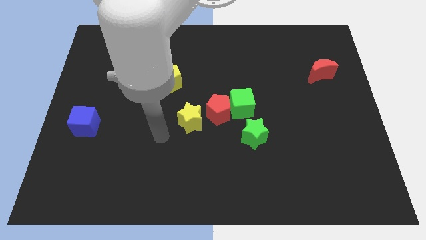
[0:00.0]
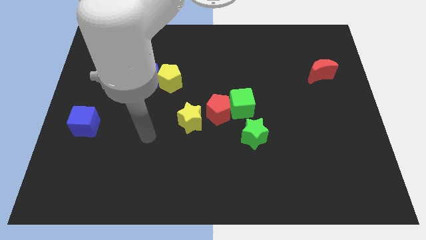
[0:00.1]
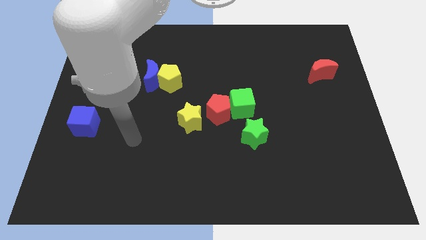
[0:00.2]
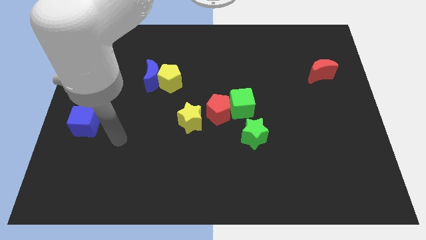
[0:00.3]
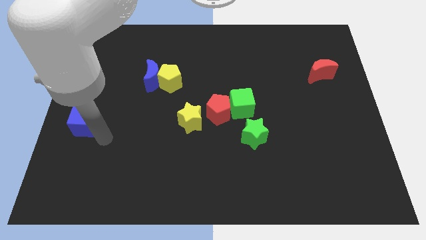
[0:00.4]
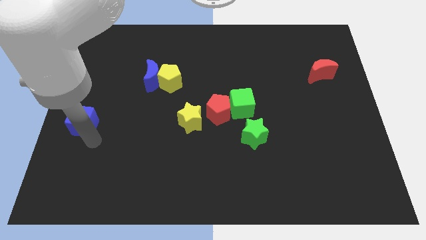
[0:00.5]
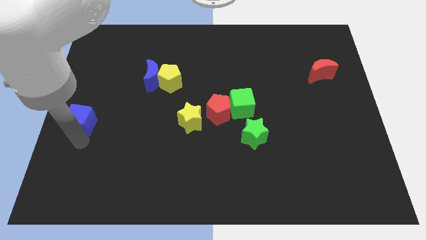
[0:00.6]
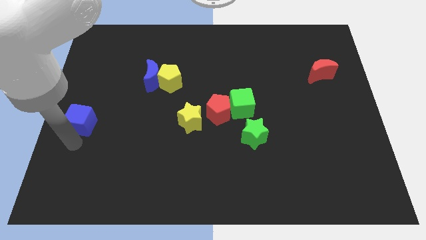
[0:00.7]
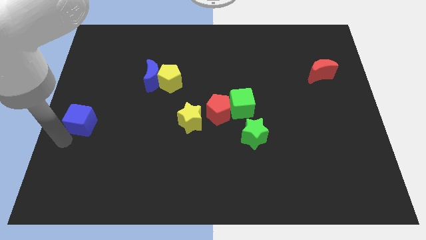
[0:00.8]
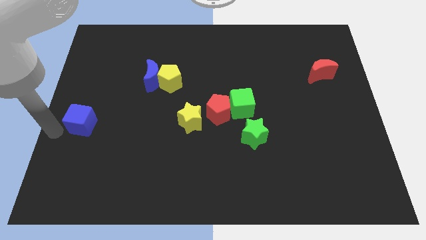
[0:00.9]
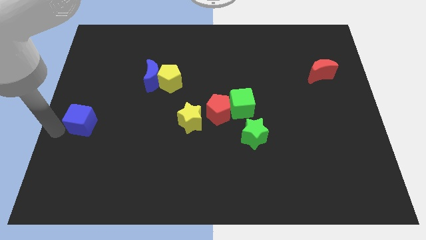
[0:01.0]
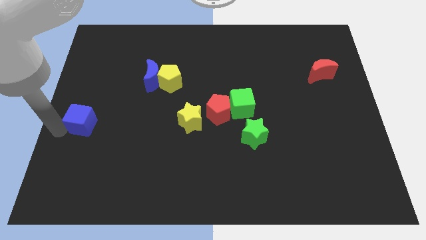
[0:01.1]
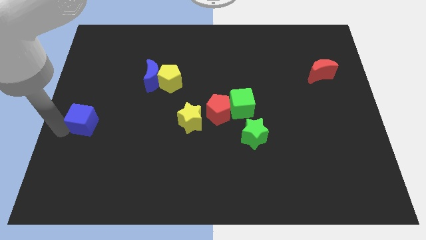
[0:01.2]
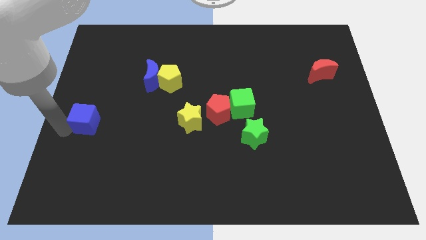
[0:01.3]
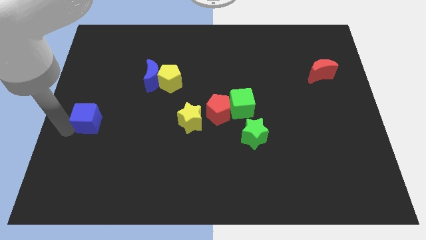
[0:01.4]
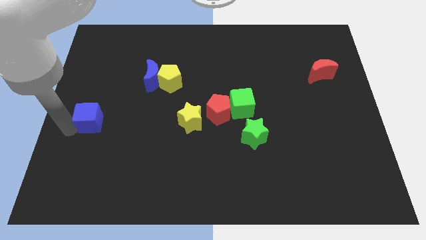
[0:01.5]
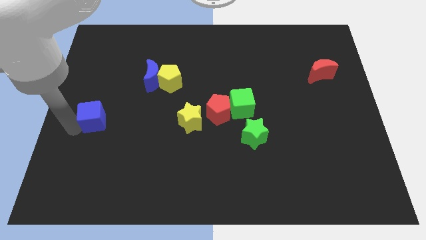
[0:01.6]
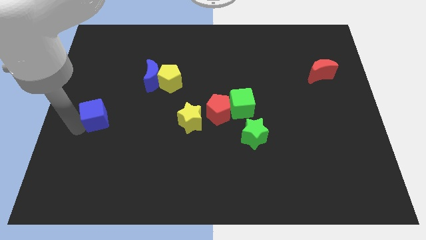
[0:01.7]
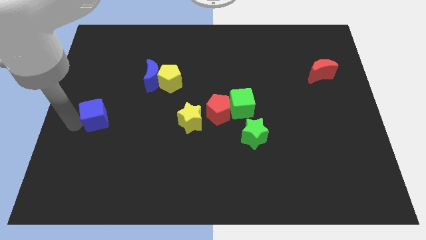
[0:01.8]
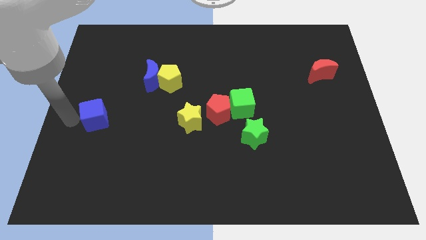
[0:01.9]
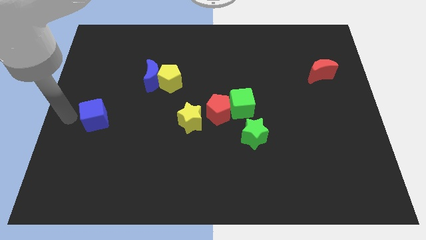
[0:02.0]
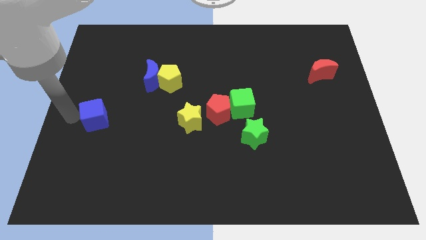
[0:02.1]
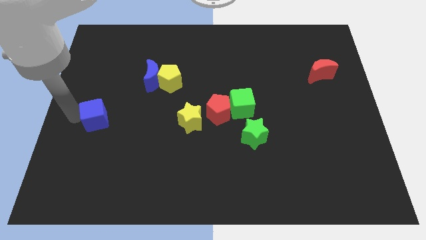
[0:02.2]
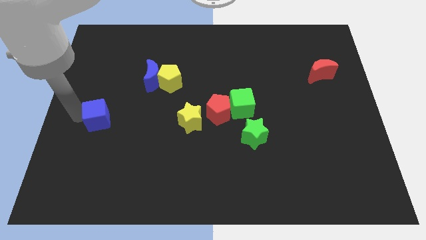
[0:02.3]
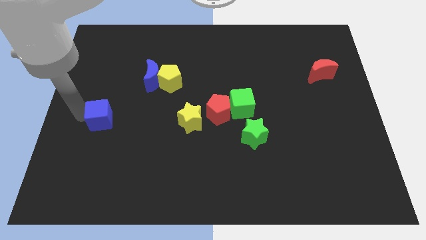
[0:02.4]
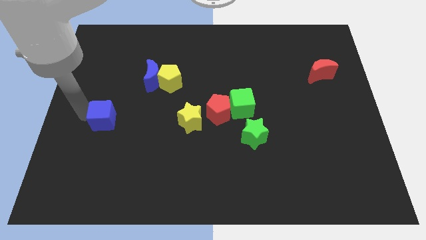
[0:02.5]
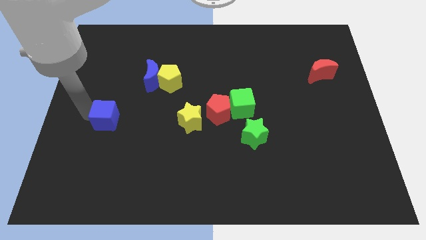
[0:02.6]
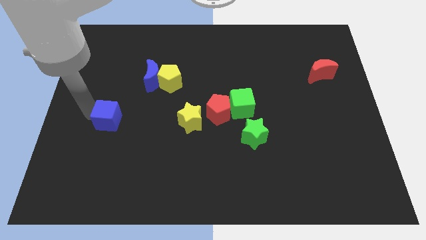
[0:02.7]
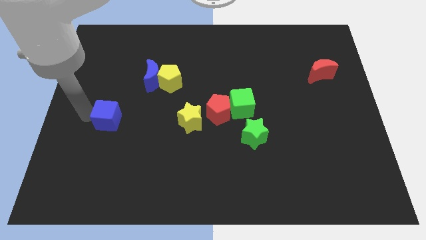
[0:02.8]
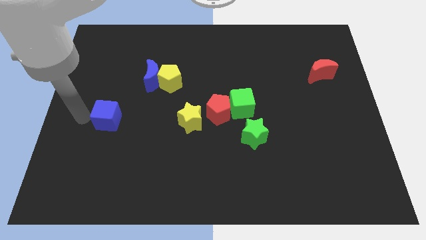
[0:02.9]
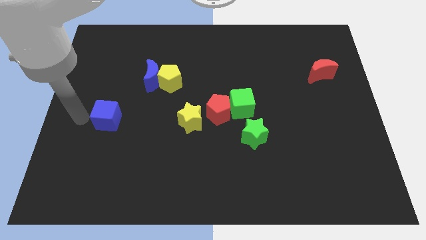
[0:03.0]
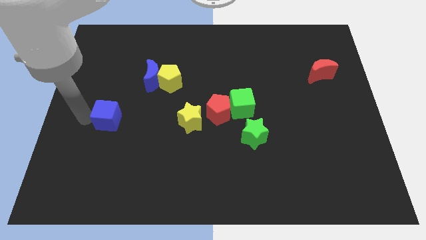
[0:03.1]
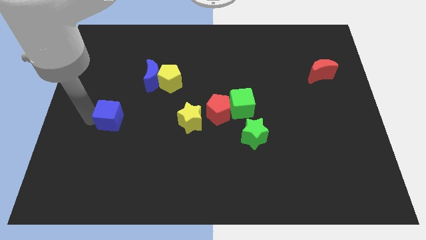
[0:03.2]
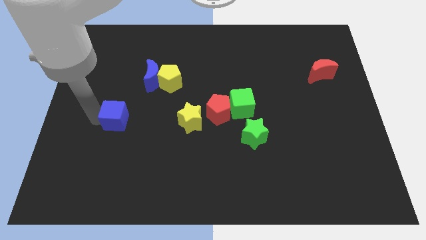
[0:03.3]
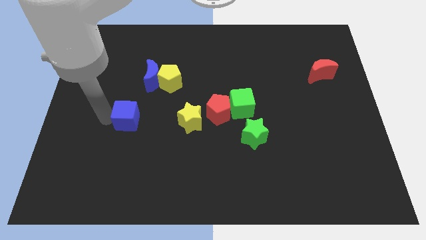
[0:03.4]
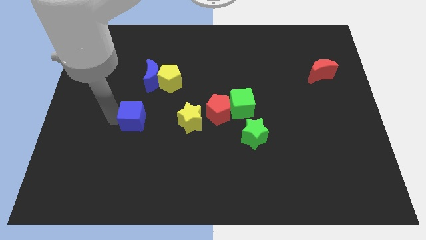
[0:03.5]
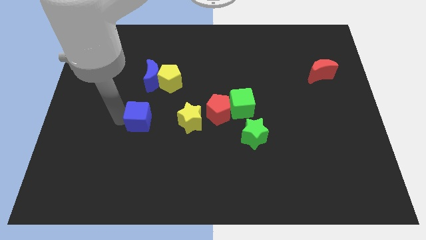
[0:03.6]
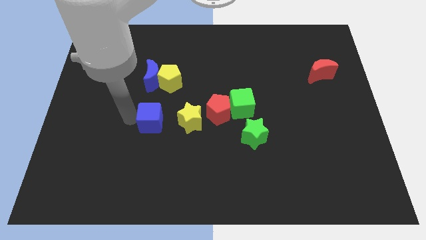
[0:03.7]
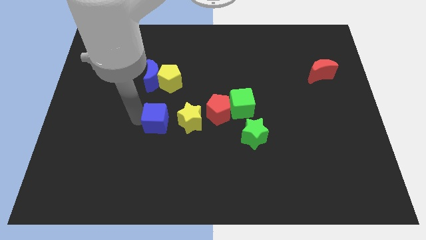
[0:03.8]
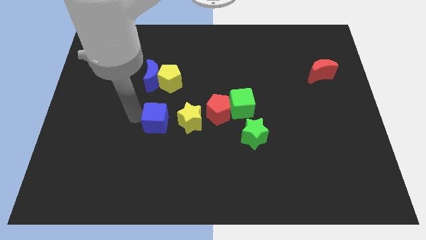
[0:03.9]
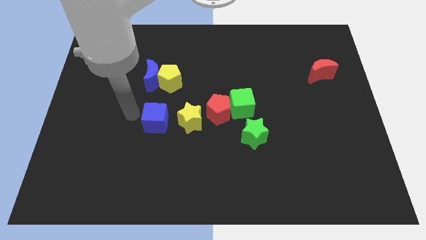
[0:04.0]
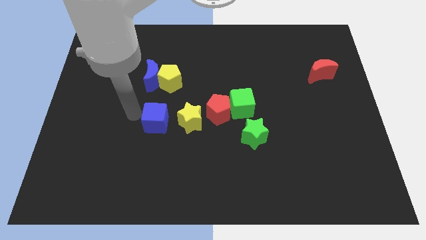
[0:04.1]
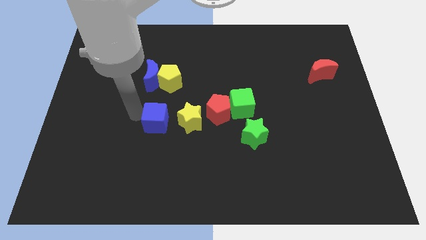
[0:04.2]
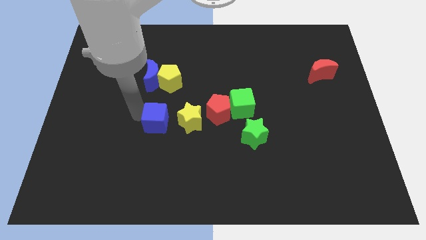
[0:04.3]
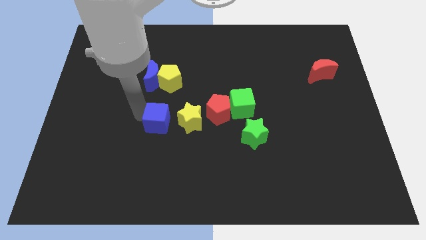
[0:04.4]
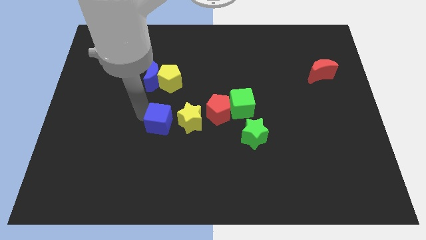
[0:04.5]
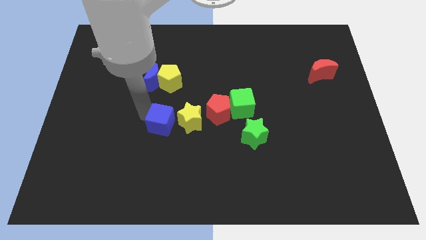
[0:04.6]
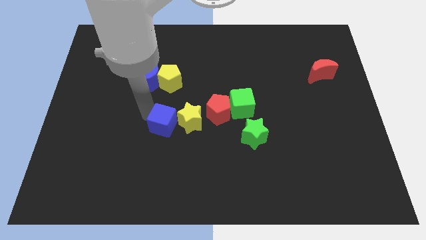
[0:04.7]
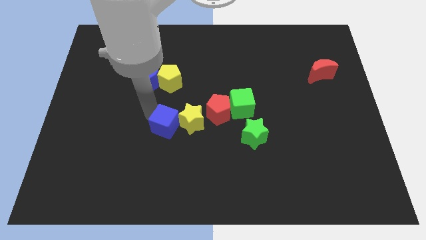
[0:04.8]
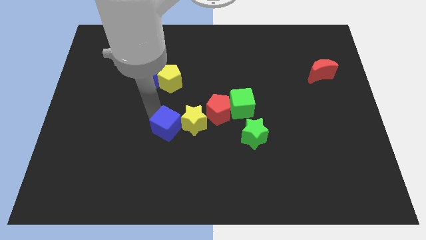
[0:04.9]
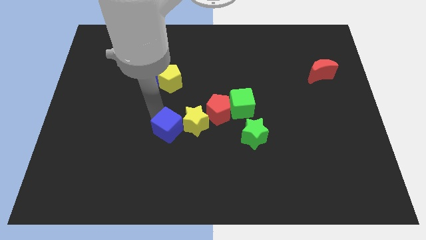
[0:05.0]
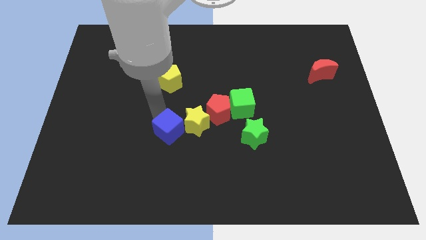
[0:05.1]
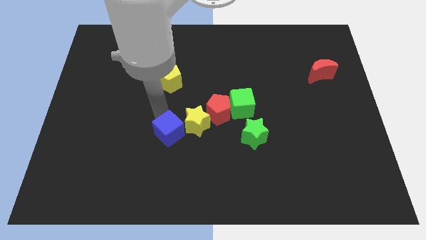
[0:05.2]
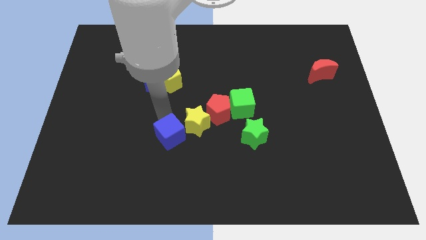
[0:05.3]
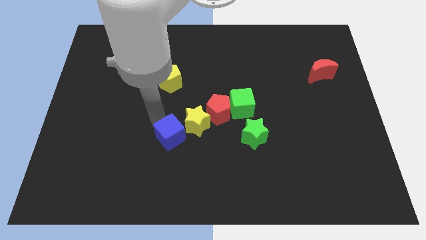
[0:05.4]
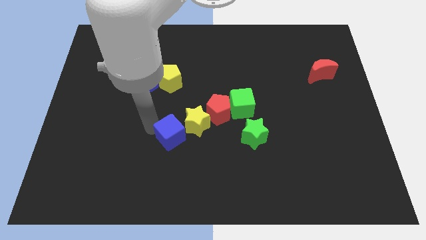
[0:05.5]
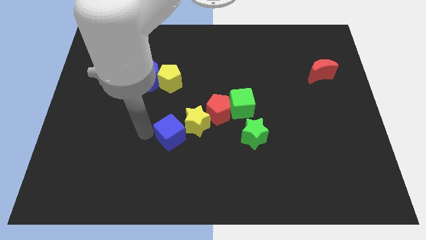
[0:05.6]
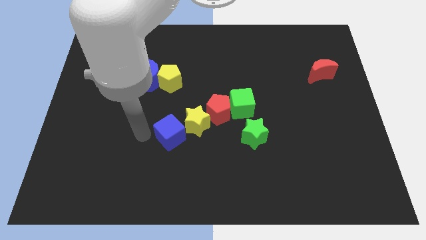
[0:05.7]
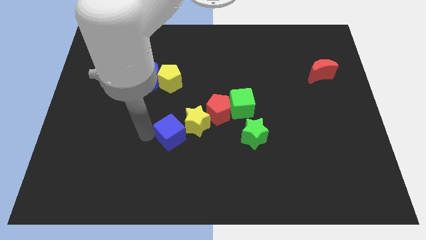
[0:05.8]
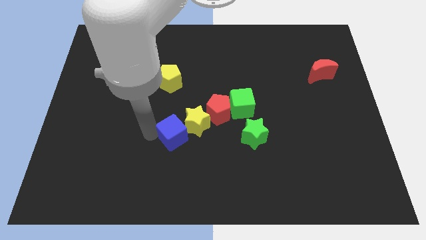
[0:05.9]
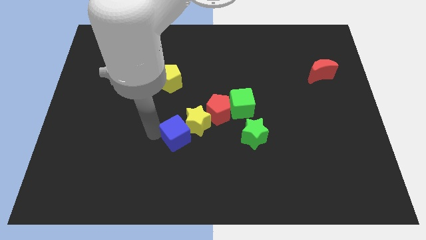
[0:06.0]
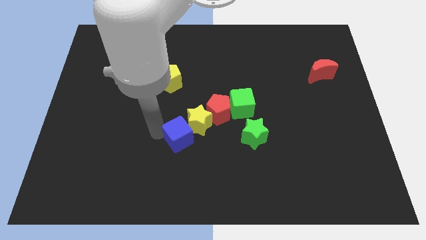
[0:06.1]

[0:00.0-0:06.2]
put the blue cube left of the green star

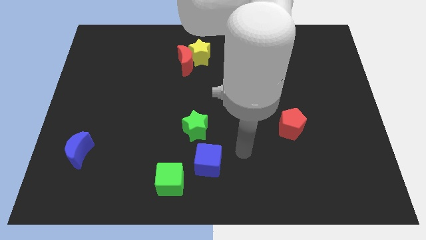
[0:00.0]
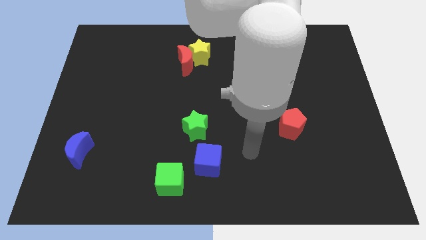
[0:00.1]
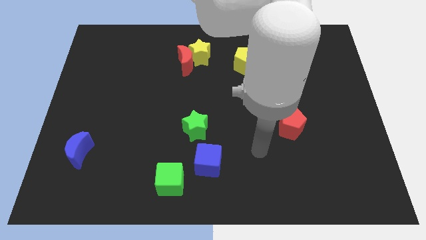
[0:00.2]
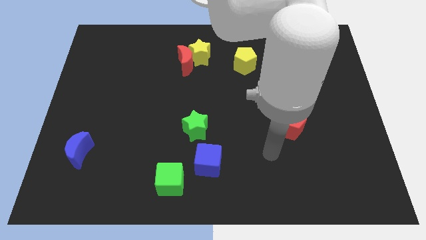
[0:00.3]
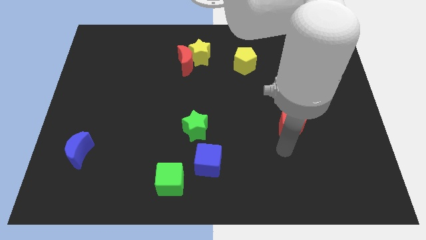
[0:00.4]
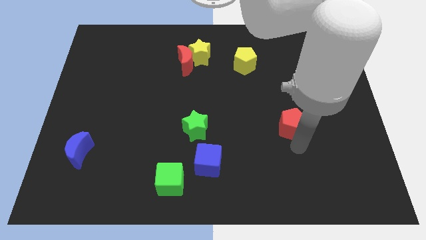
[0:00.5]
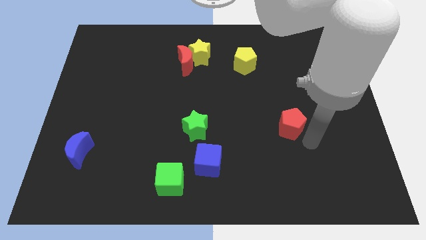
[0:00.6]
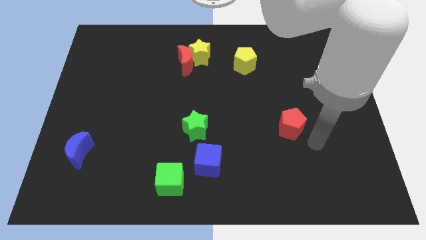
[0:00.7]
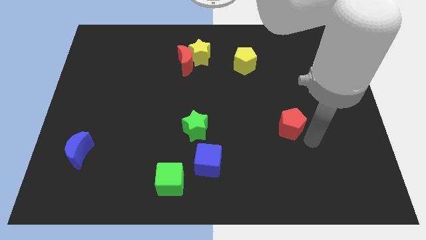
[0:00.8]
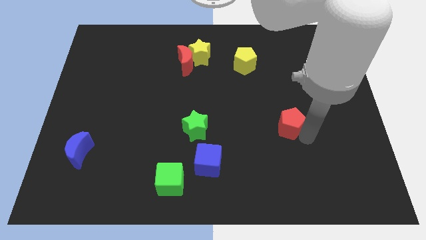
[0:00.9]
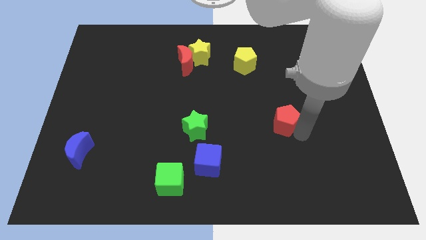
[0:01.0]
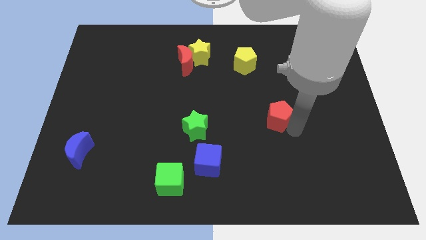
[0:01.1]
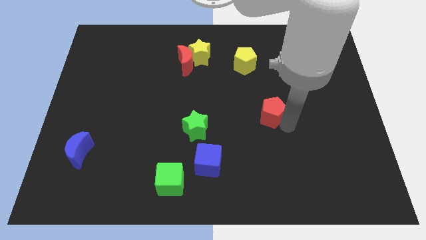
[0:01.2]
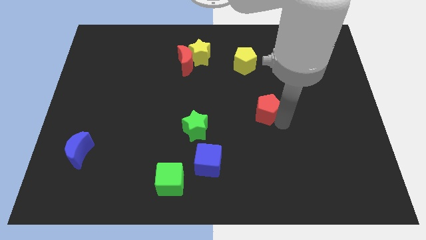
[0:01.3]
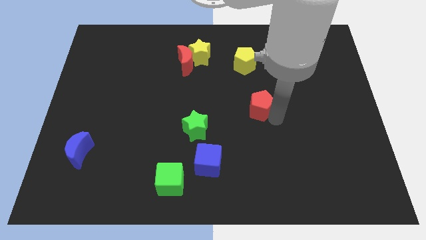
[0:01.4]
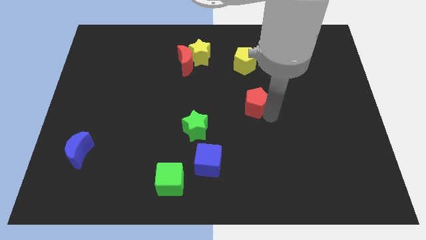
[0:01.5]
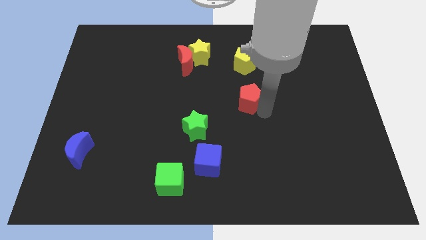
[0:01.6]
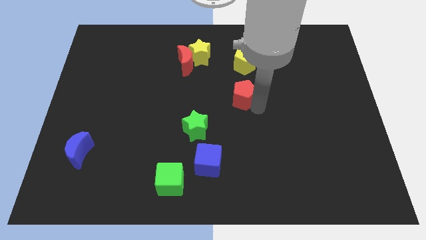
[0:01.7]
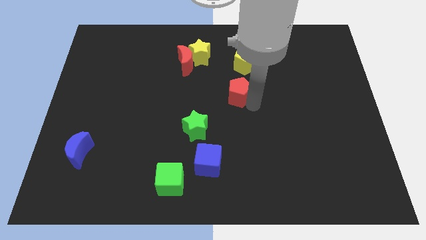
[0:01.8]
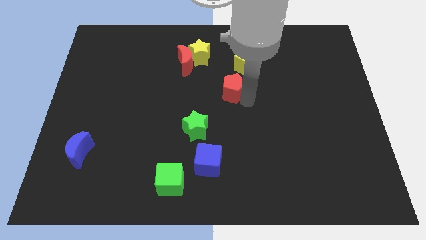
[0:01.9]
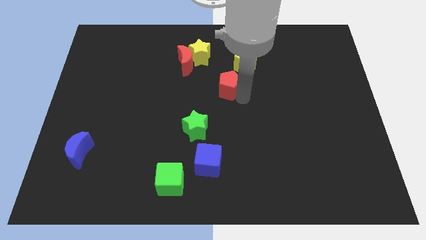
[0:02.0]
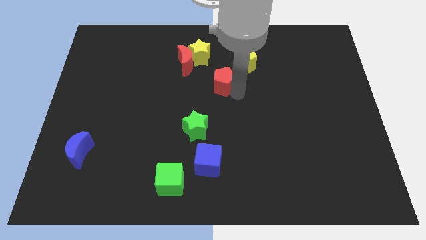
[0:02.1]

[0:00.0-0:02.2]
push the red pentagon diagonally down and to the right of the red moon

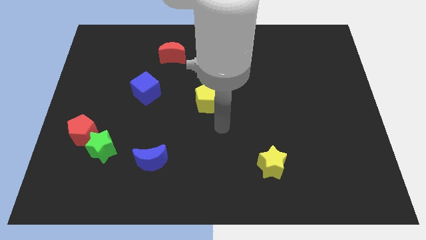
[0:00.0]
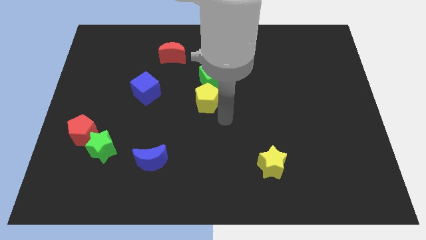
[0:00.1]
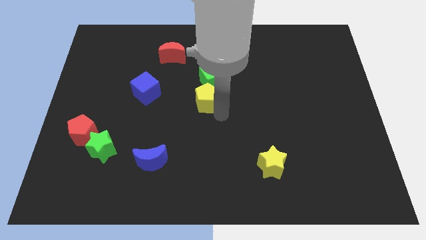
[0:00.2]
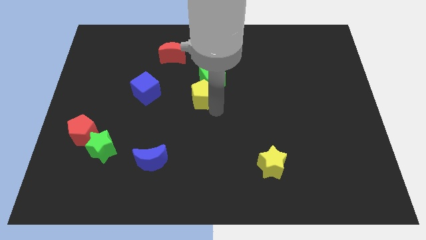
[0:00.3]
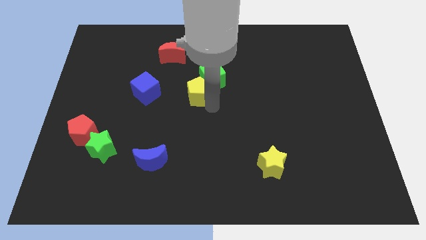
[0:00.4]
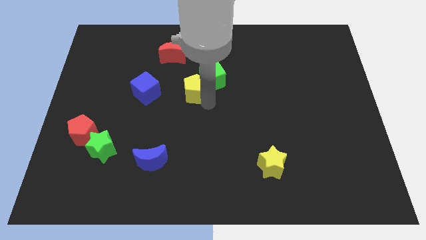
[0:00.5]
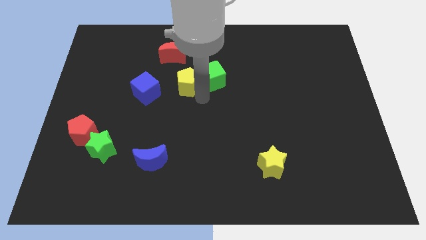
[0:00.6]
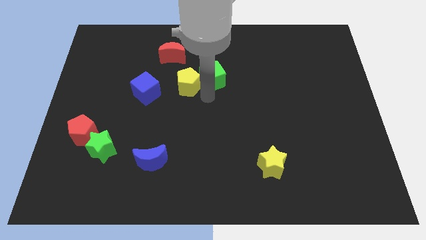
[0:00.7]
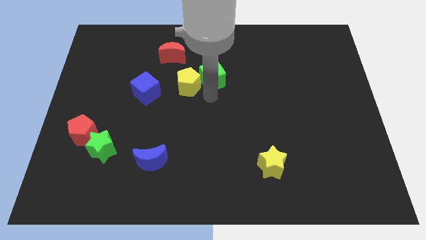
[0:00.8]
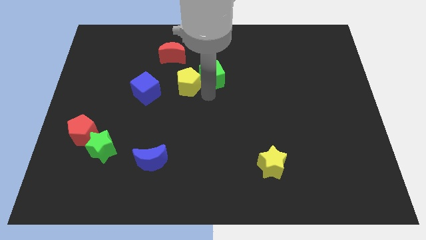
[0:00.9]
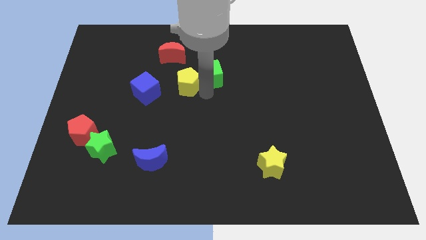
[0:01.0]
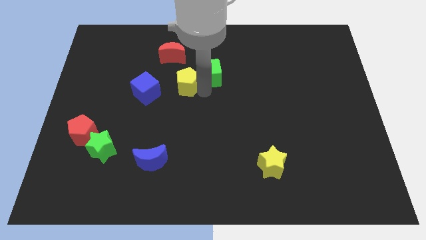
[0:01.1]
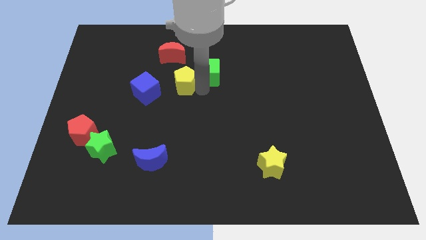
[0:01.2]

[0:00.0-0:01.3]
push the yellow pentagon to the top right side of the blue cube
